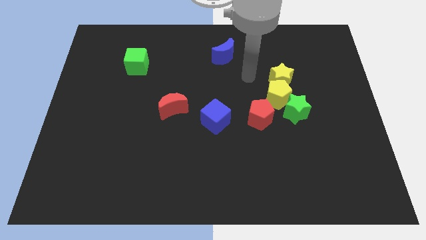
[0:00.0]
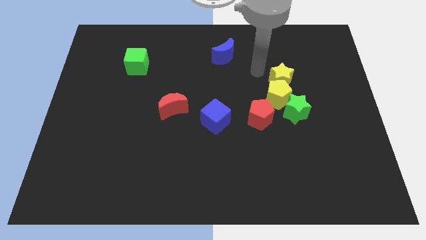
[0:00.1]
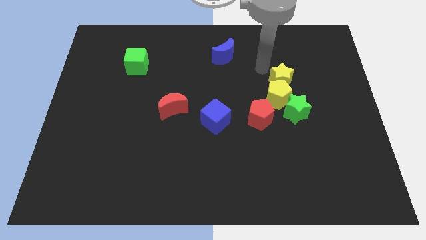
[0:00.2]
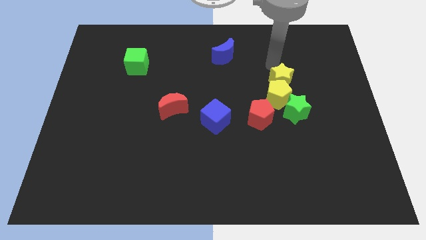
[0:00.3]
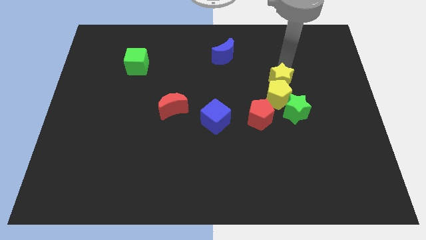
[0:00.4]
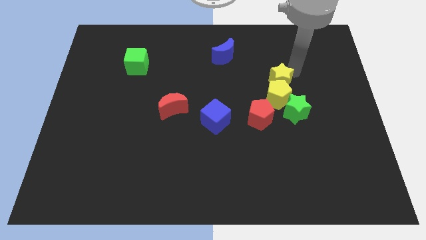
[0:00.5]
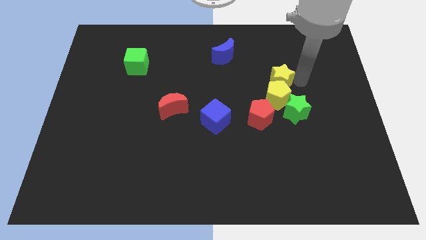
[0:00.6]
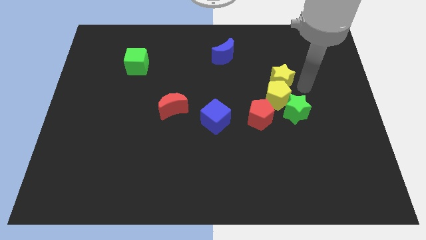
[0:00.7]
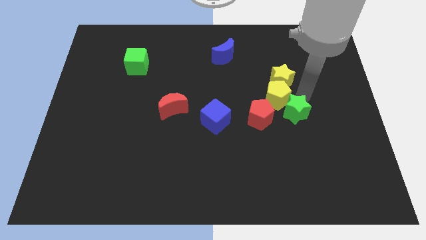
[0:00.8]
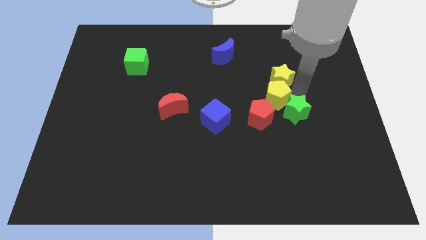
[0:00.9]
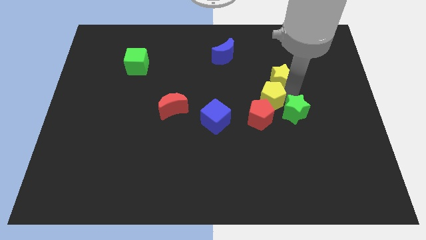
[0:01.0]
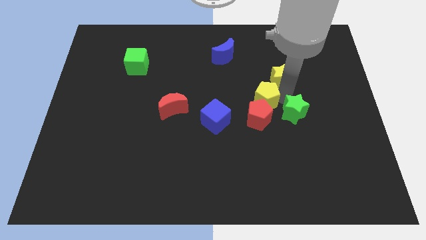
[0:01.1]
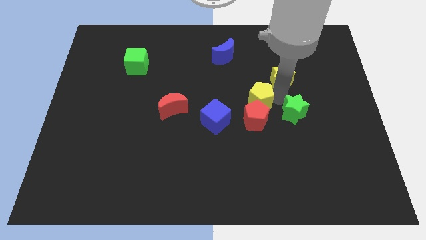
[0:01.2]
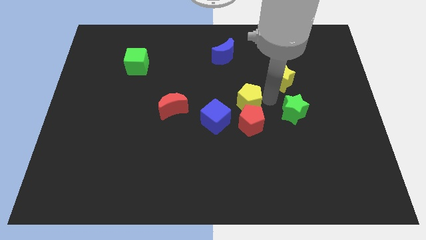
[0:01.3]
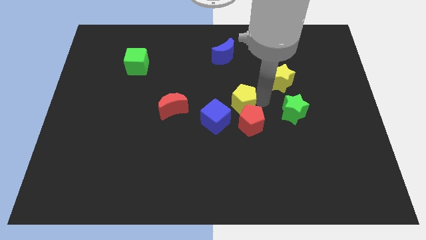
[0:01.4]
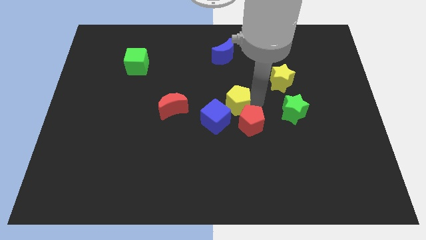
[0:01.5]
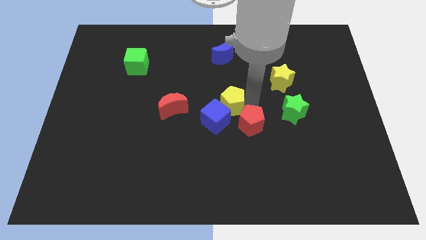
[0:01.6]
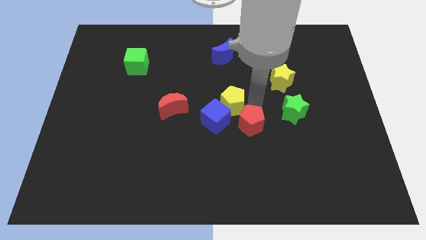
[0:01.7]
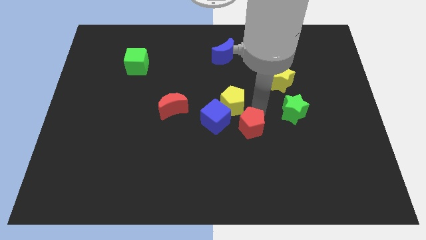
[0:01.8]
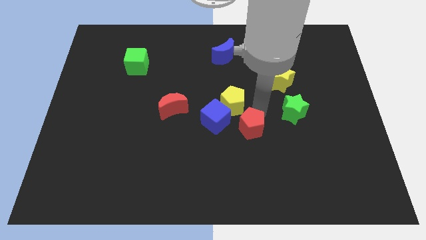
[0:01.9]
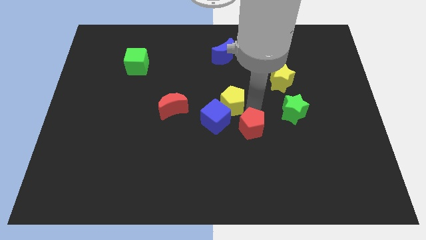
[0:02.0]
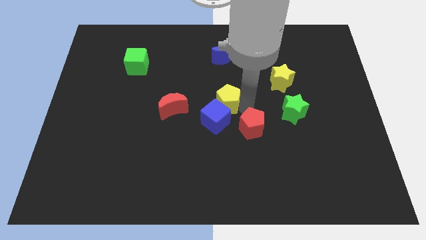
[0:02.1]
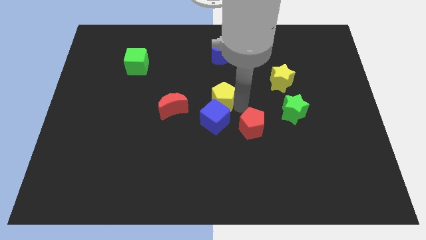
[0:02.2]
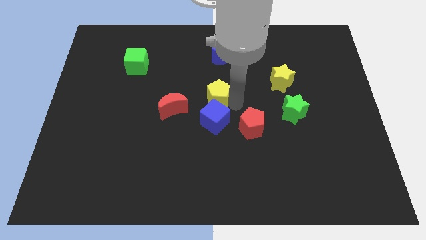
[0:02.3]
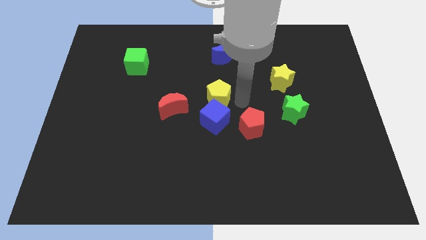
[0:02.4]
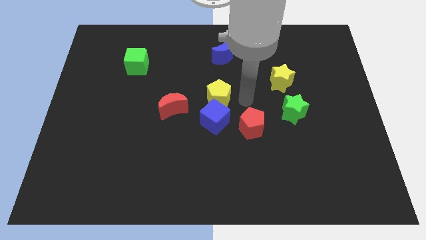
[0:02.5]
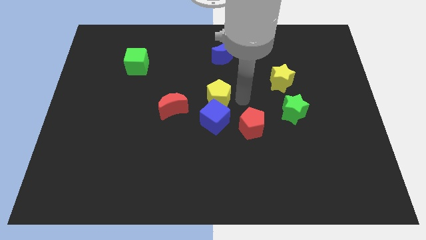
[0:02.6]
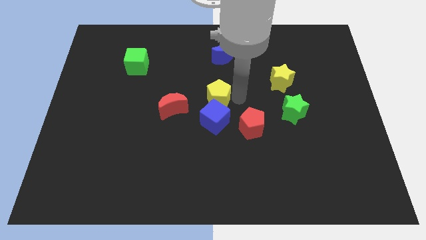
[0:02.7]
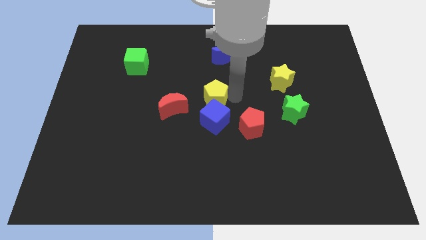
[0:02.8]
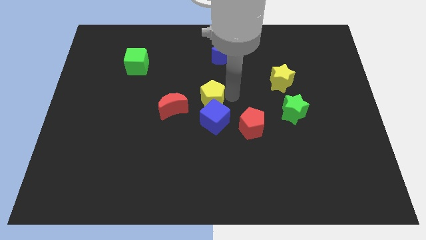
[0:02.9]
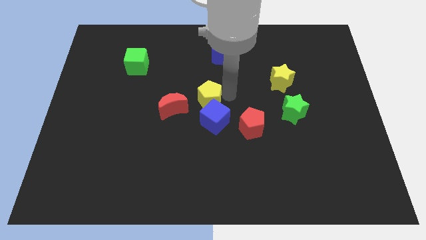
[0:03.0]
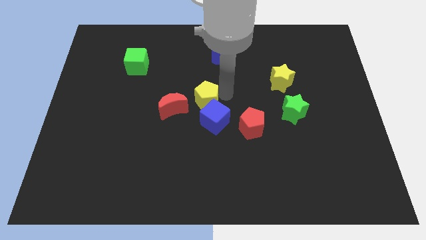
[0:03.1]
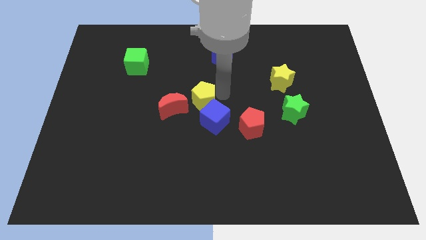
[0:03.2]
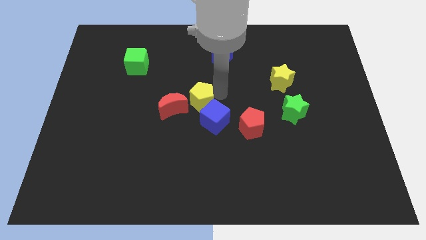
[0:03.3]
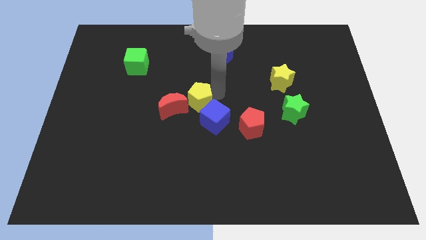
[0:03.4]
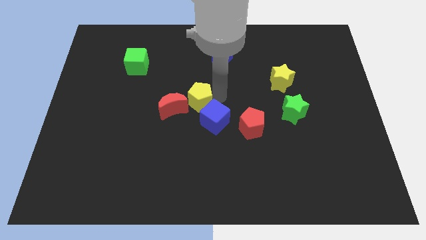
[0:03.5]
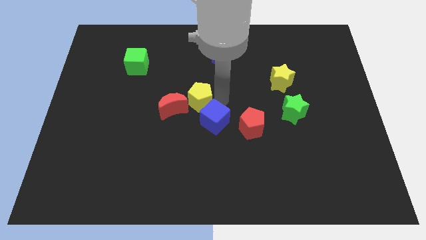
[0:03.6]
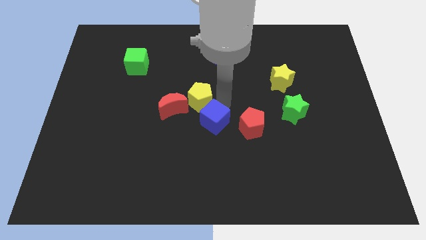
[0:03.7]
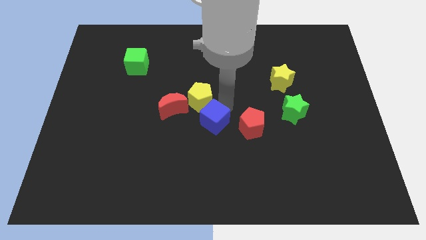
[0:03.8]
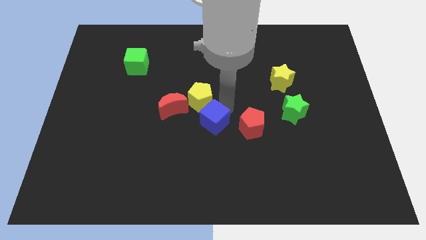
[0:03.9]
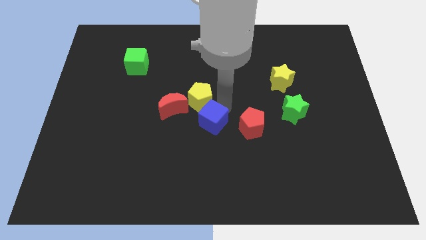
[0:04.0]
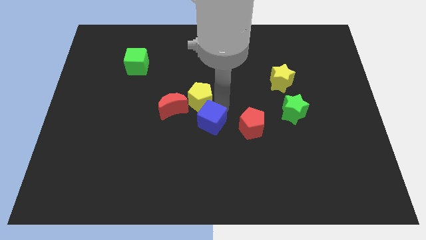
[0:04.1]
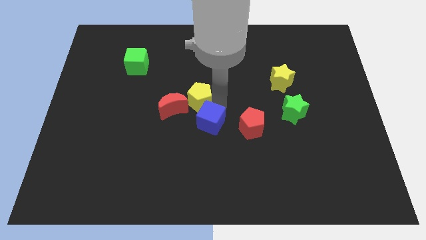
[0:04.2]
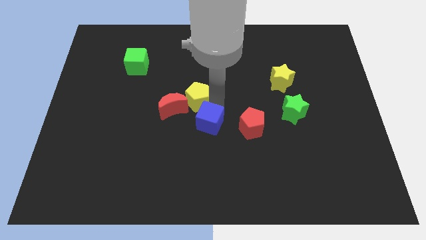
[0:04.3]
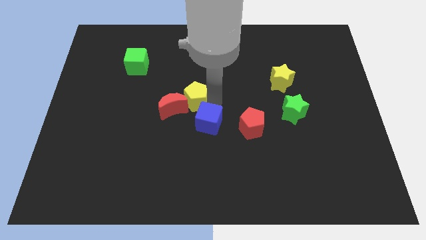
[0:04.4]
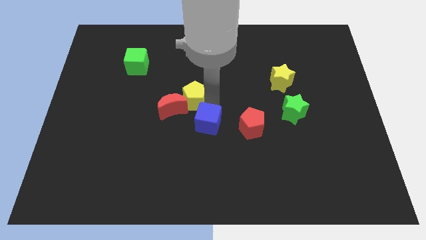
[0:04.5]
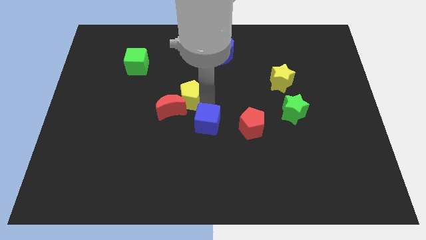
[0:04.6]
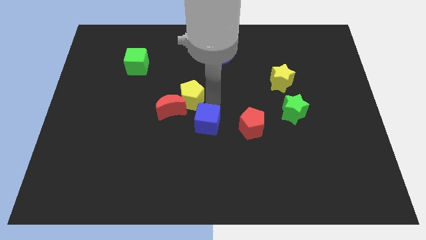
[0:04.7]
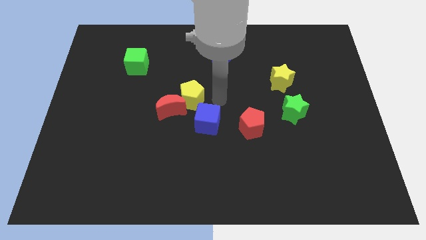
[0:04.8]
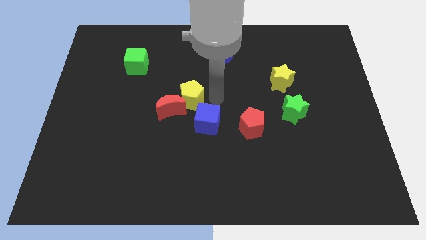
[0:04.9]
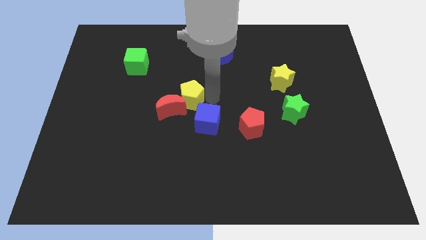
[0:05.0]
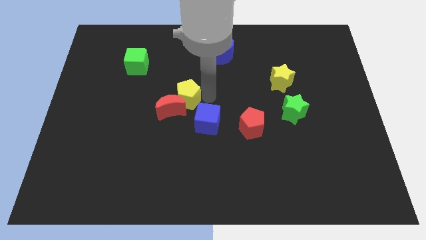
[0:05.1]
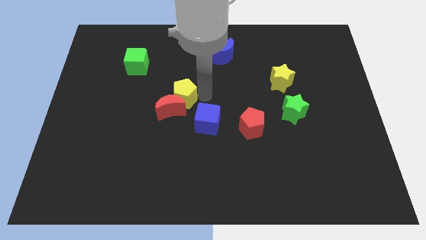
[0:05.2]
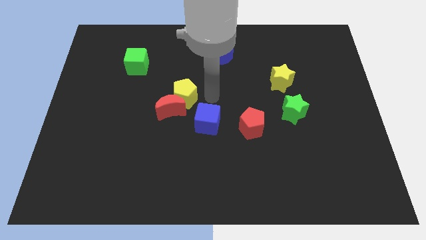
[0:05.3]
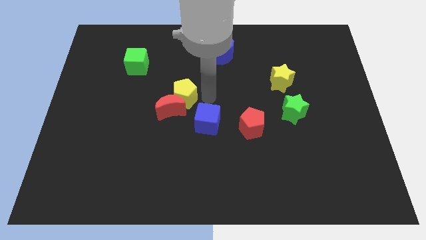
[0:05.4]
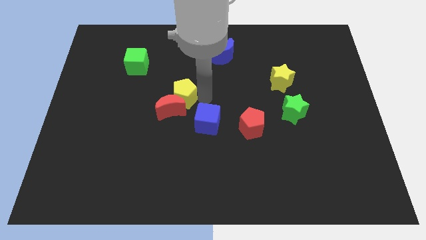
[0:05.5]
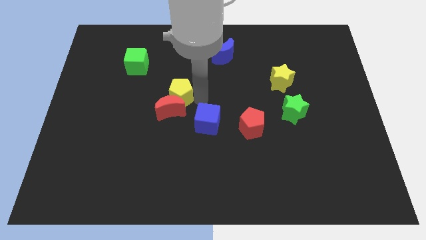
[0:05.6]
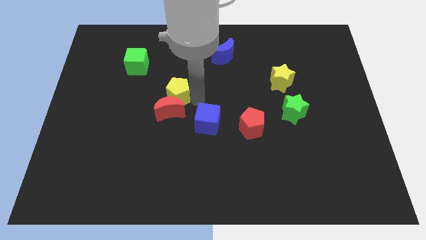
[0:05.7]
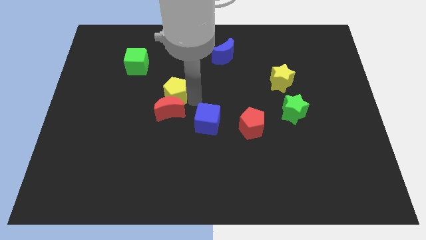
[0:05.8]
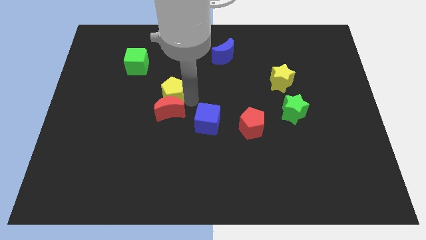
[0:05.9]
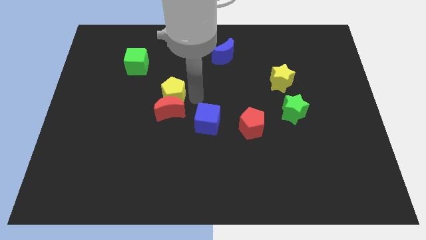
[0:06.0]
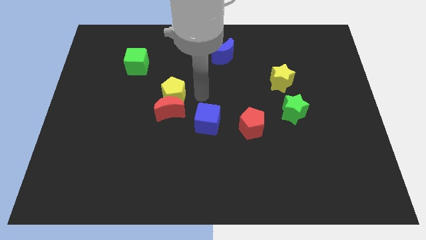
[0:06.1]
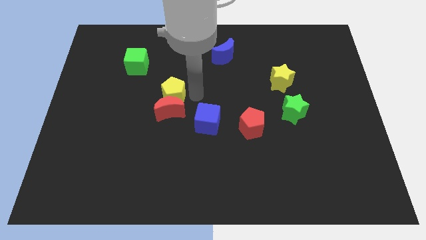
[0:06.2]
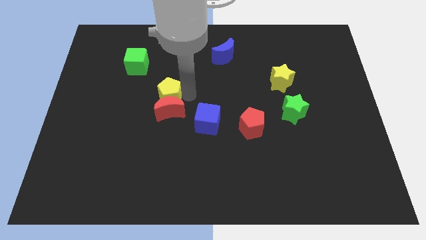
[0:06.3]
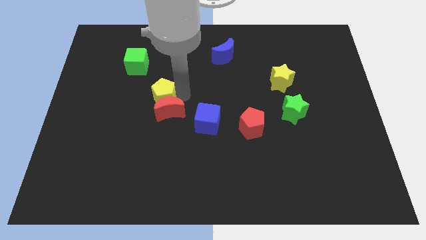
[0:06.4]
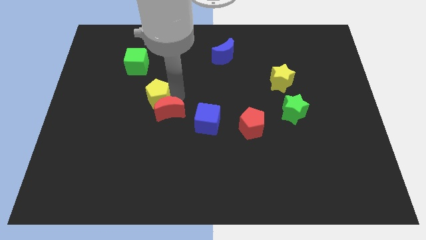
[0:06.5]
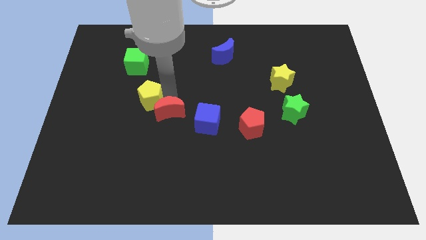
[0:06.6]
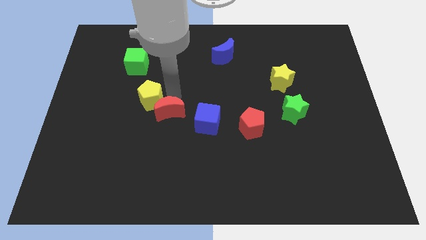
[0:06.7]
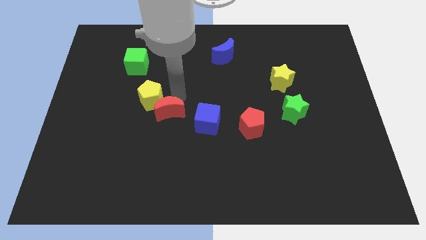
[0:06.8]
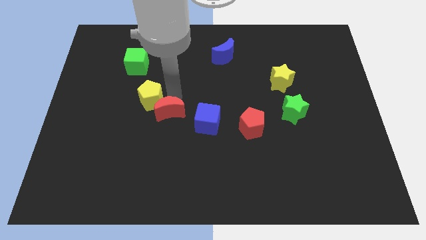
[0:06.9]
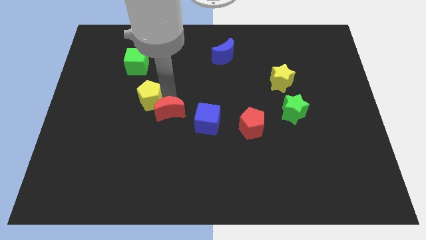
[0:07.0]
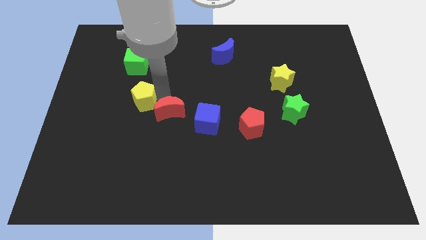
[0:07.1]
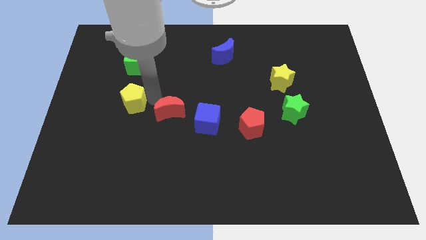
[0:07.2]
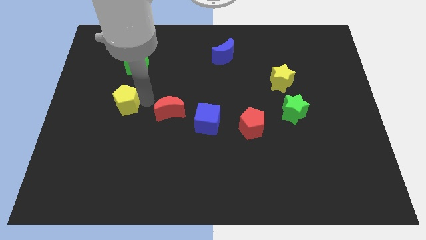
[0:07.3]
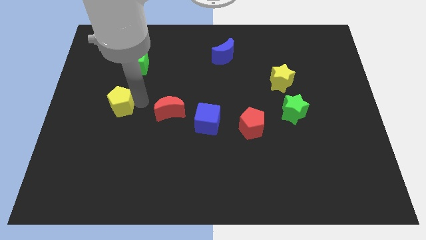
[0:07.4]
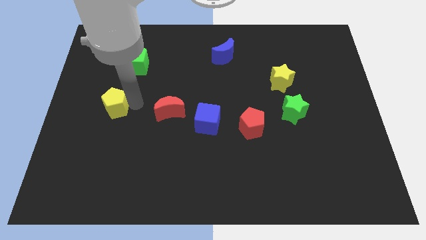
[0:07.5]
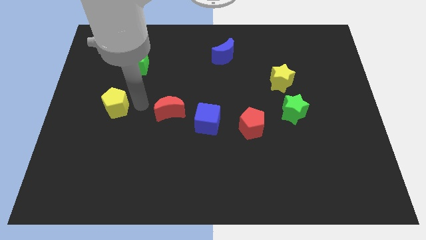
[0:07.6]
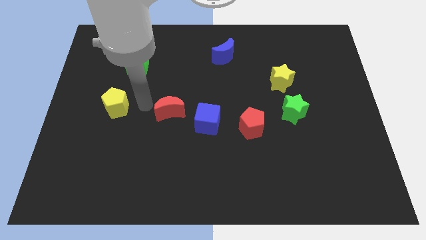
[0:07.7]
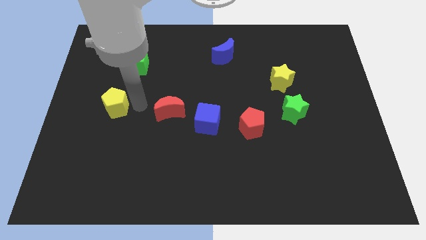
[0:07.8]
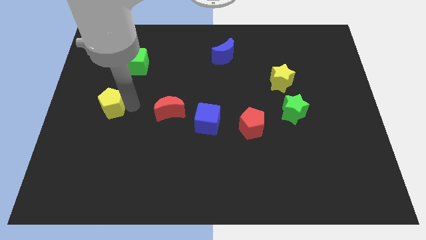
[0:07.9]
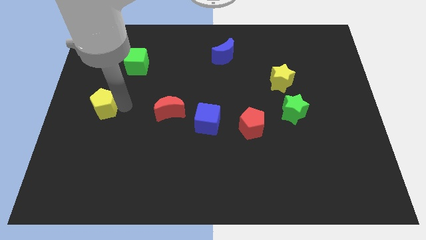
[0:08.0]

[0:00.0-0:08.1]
put the yellow pentagon to the center left
